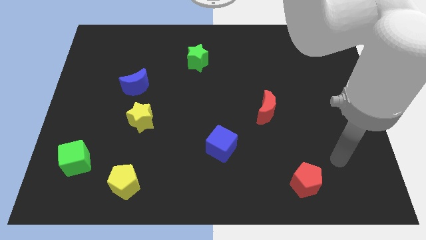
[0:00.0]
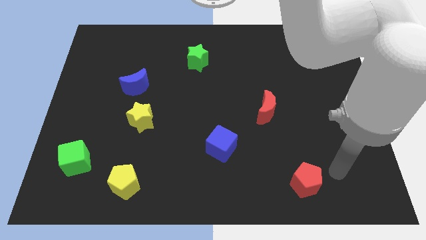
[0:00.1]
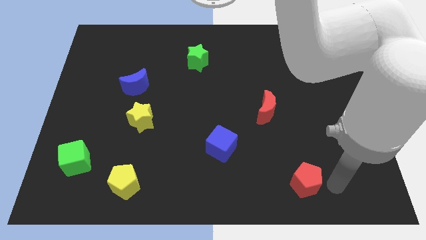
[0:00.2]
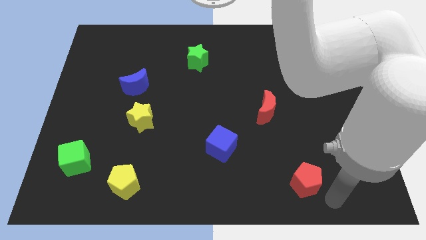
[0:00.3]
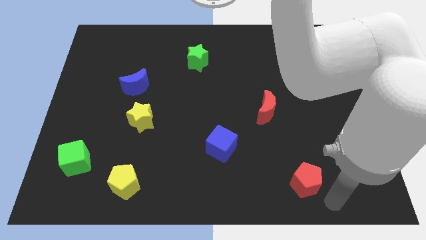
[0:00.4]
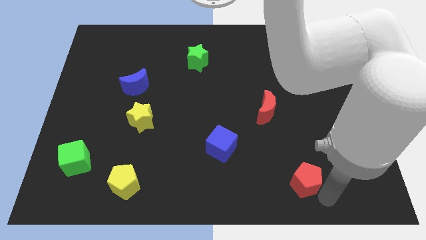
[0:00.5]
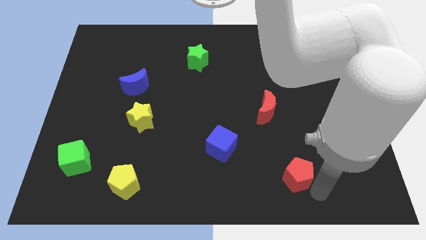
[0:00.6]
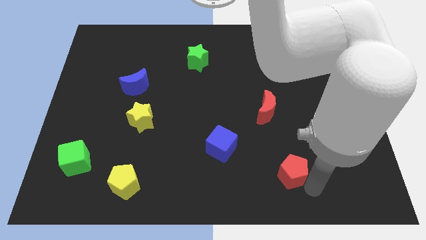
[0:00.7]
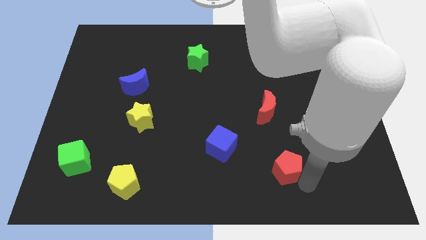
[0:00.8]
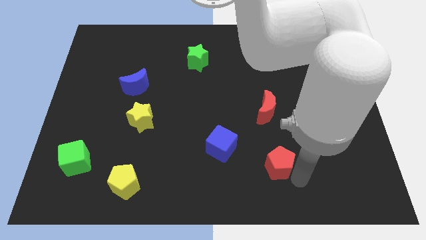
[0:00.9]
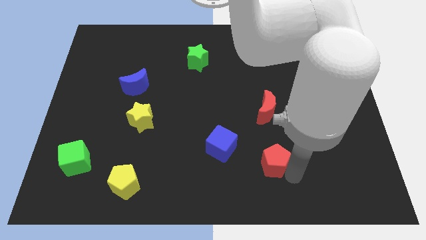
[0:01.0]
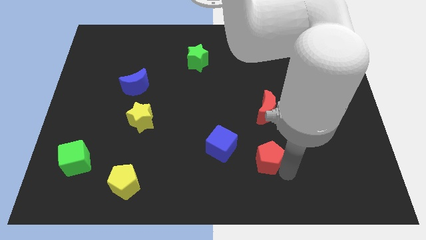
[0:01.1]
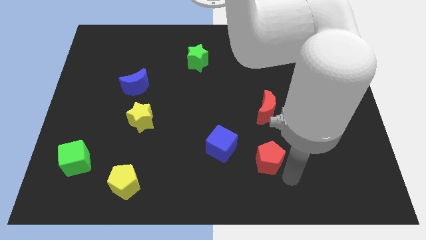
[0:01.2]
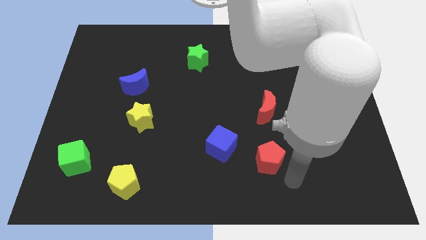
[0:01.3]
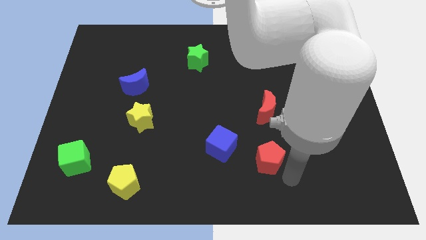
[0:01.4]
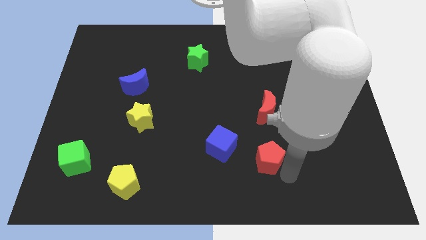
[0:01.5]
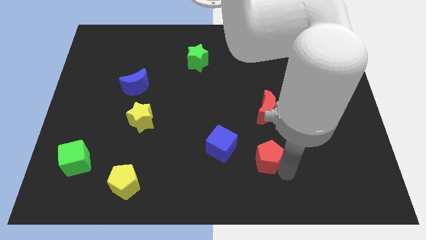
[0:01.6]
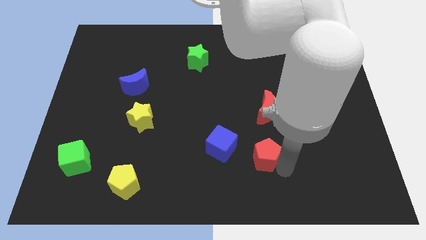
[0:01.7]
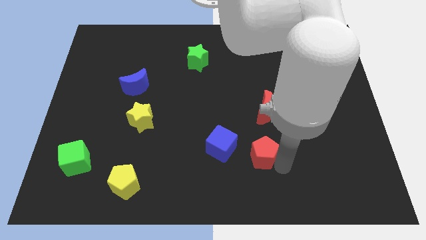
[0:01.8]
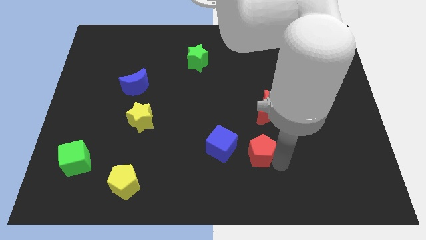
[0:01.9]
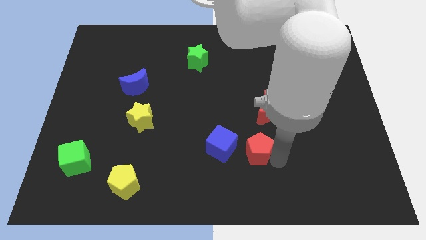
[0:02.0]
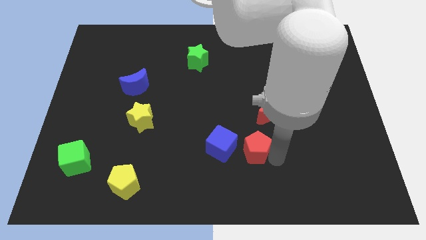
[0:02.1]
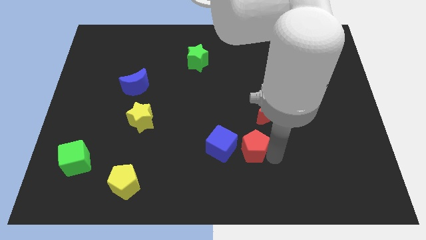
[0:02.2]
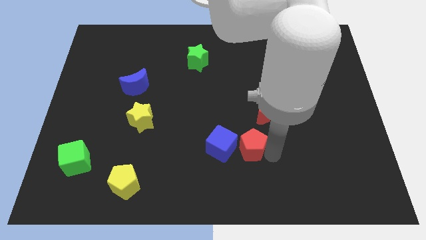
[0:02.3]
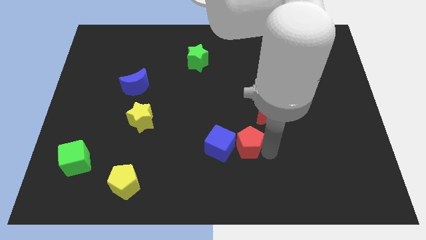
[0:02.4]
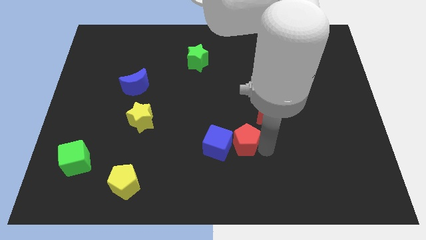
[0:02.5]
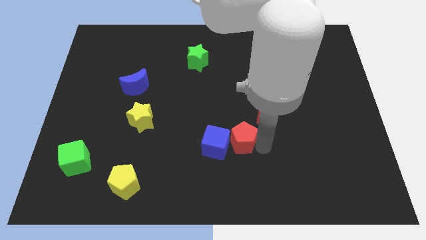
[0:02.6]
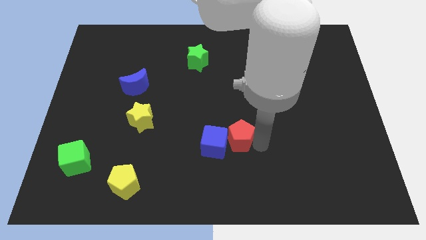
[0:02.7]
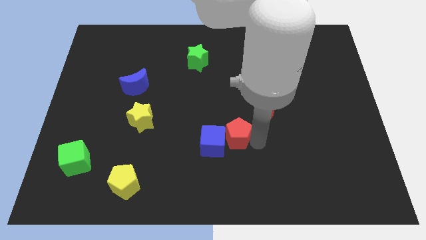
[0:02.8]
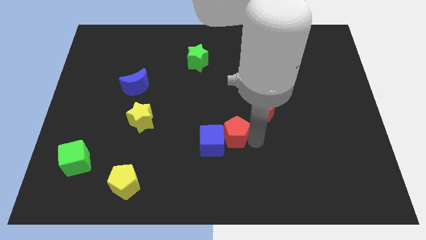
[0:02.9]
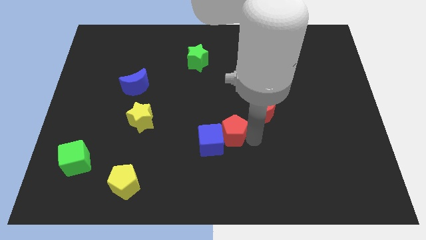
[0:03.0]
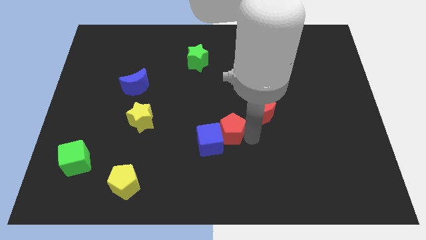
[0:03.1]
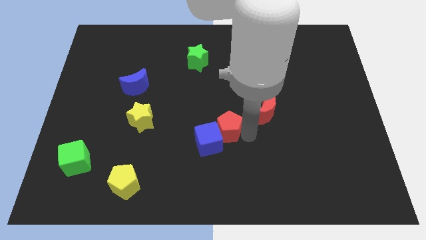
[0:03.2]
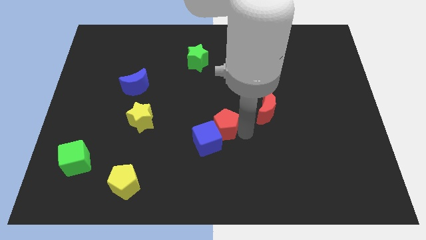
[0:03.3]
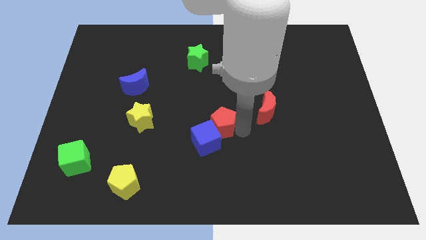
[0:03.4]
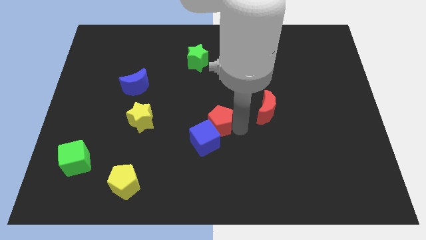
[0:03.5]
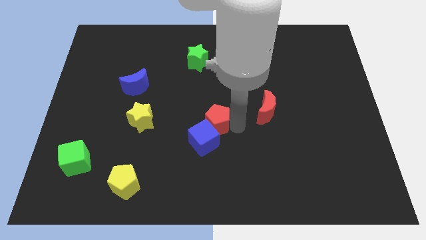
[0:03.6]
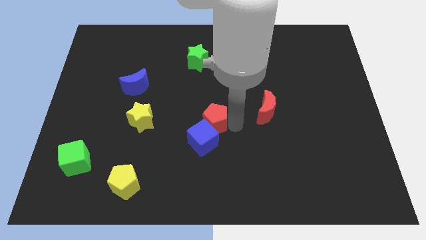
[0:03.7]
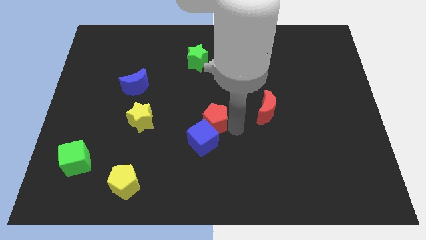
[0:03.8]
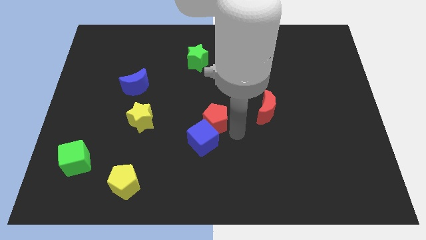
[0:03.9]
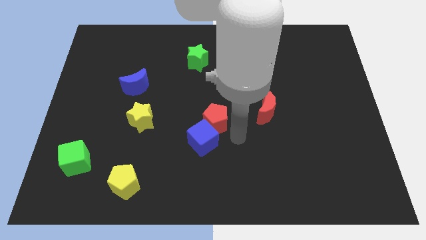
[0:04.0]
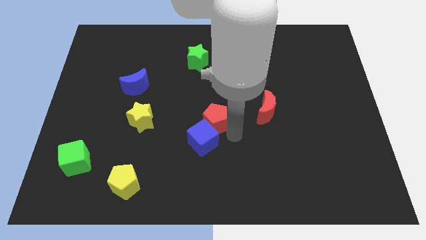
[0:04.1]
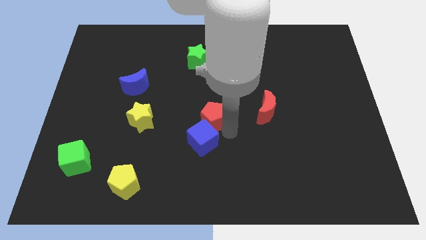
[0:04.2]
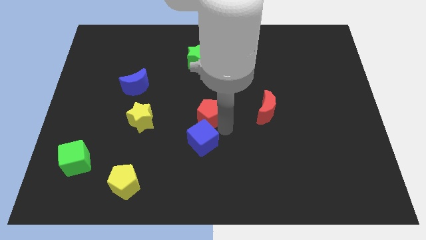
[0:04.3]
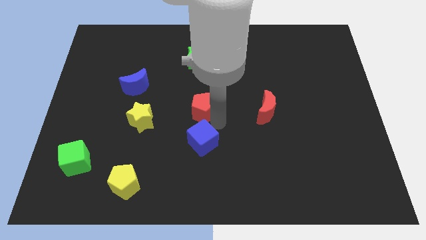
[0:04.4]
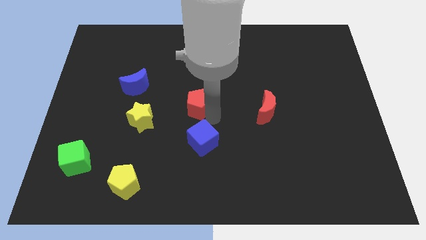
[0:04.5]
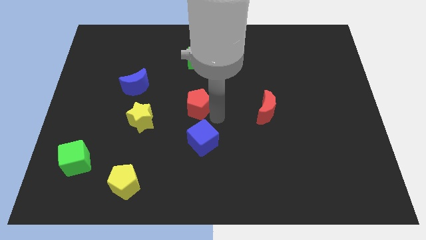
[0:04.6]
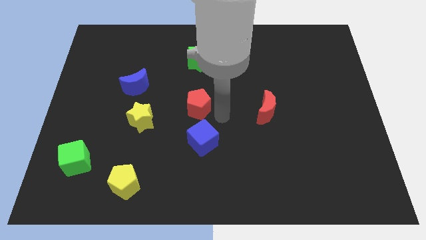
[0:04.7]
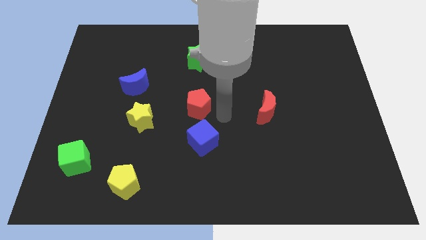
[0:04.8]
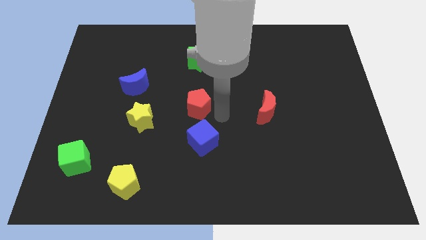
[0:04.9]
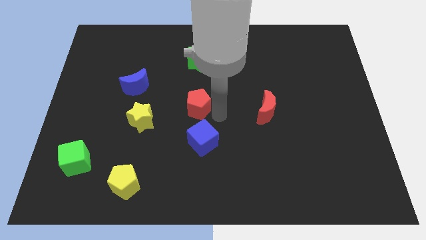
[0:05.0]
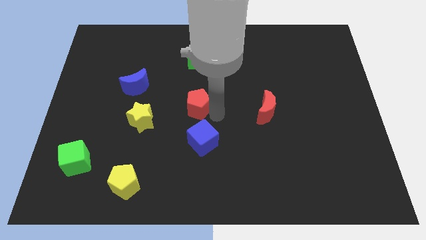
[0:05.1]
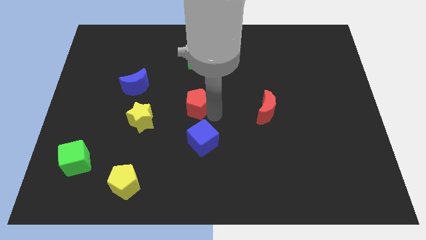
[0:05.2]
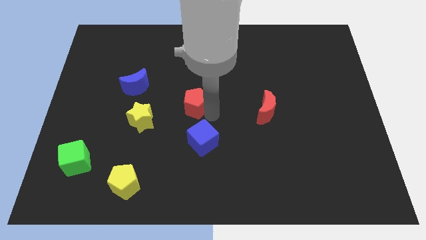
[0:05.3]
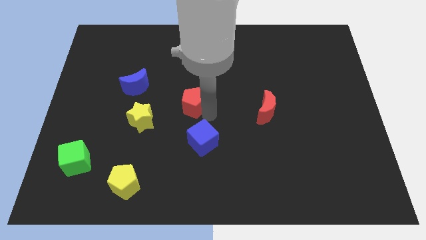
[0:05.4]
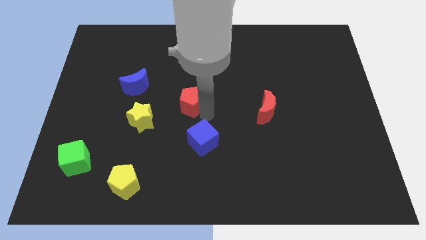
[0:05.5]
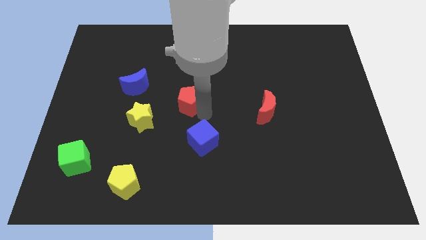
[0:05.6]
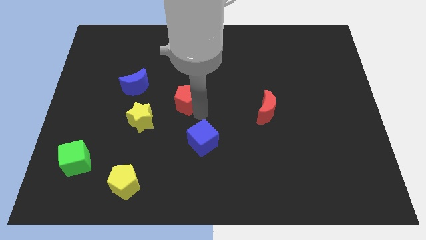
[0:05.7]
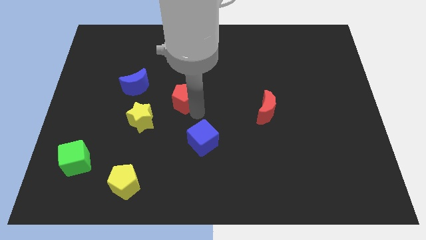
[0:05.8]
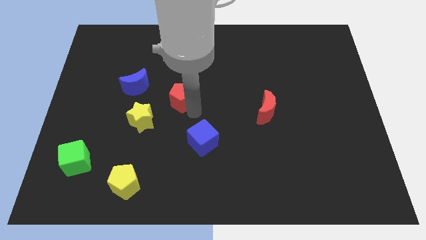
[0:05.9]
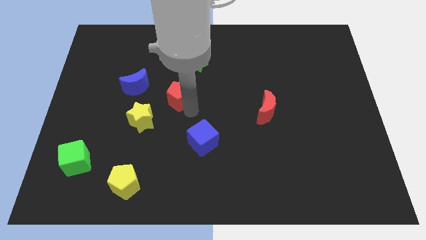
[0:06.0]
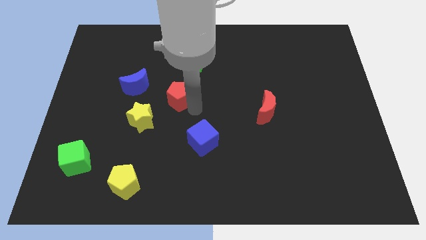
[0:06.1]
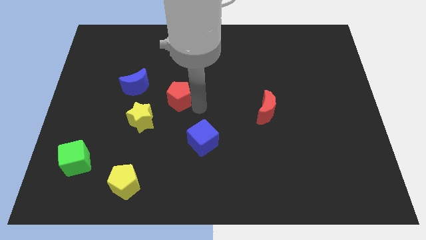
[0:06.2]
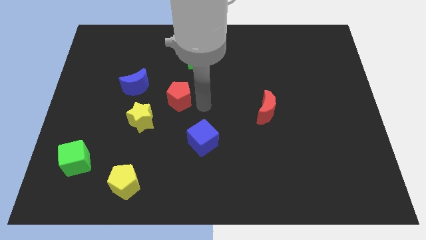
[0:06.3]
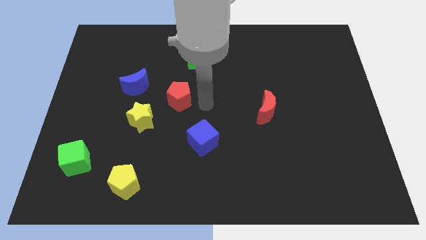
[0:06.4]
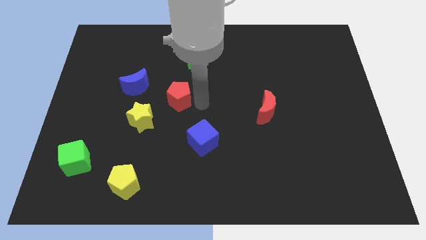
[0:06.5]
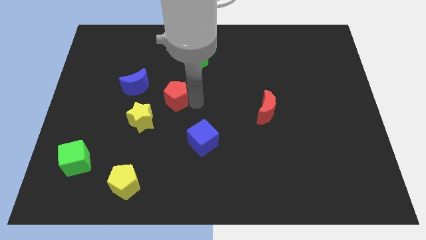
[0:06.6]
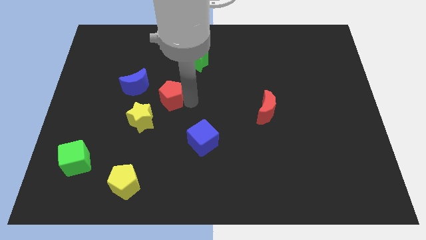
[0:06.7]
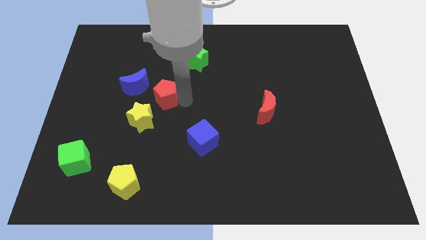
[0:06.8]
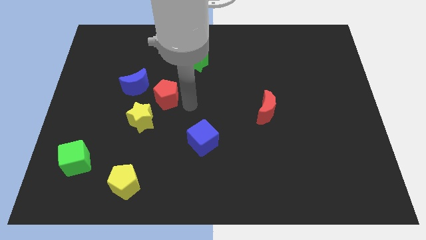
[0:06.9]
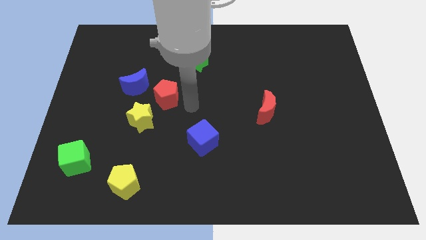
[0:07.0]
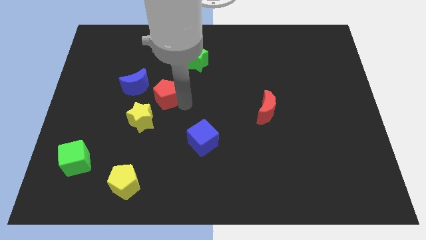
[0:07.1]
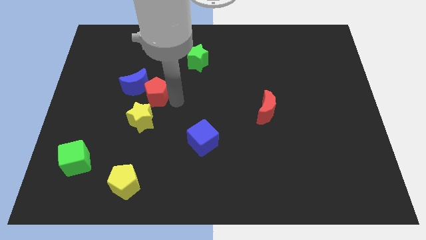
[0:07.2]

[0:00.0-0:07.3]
put the red pentagon next to the blue moon
